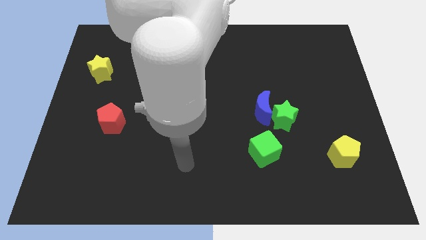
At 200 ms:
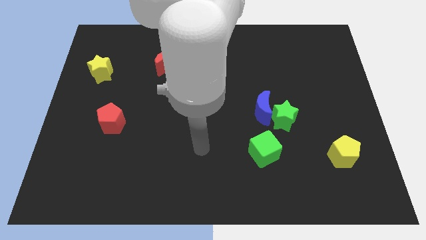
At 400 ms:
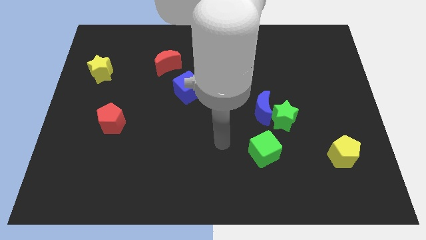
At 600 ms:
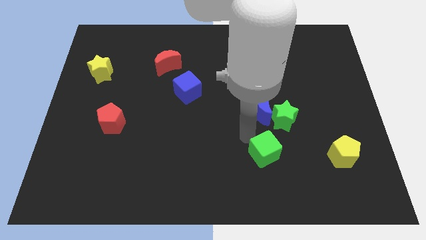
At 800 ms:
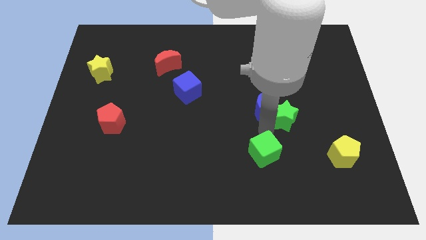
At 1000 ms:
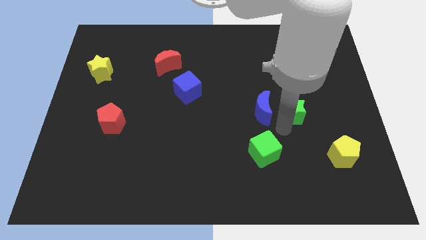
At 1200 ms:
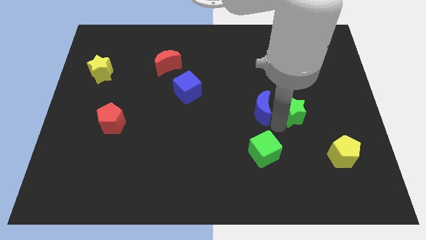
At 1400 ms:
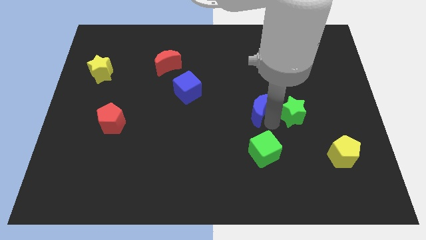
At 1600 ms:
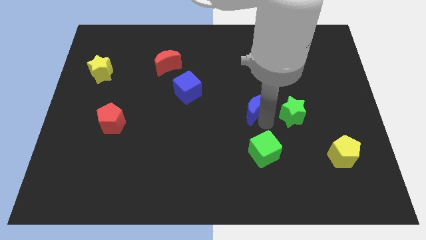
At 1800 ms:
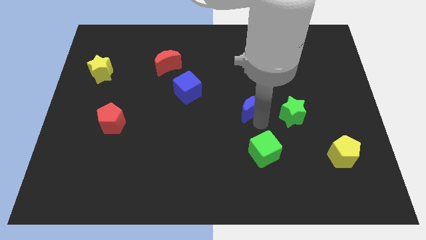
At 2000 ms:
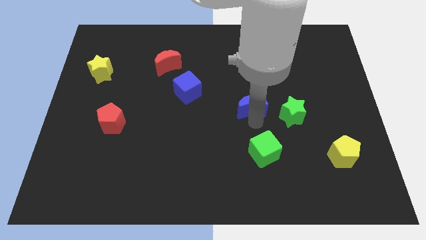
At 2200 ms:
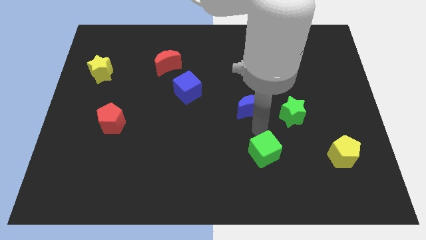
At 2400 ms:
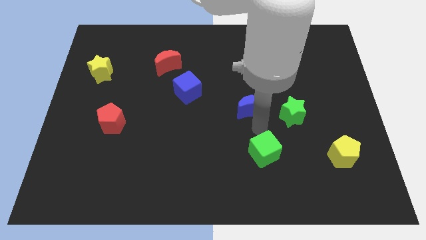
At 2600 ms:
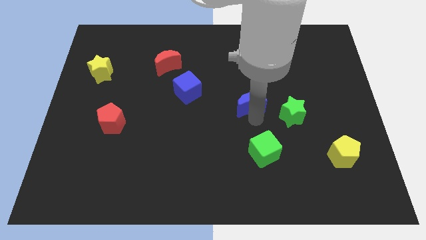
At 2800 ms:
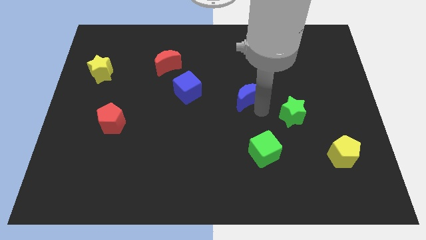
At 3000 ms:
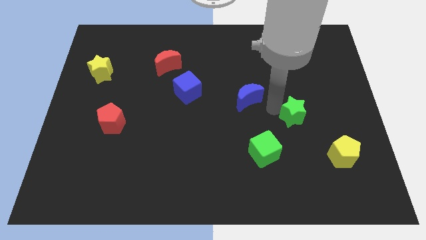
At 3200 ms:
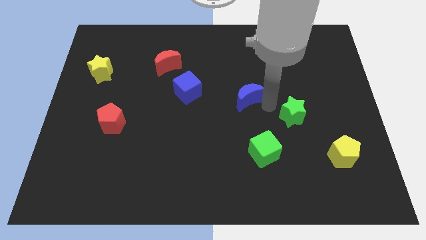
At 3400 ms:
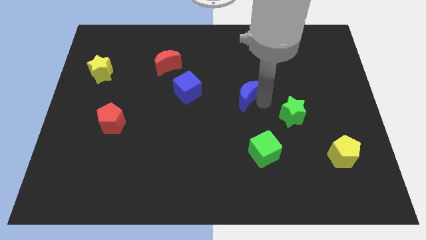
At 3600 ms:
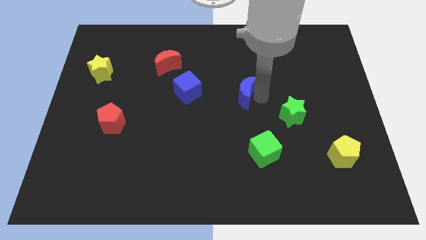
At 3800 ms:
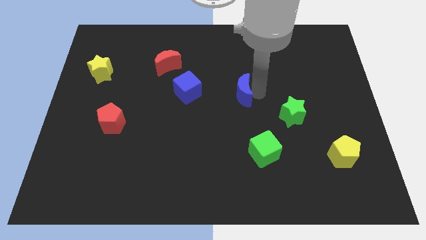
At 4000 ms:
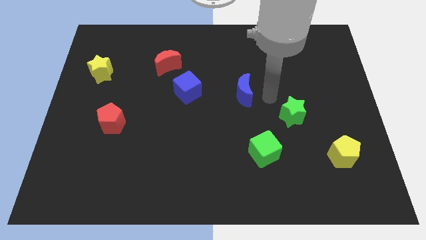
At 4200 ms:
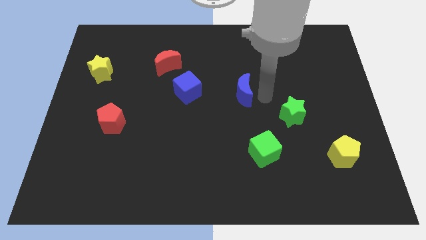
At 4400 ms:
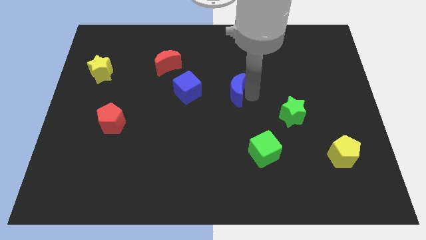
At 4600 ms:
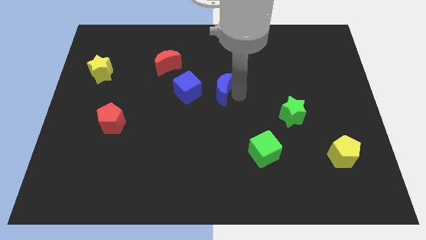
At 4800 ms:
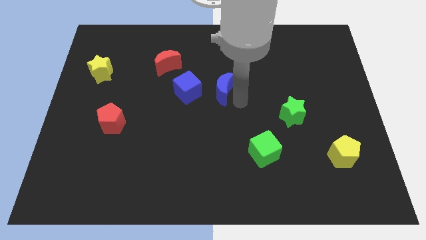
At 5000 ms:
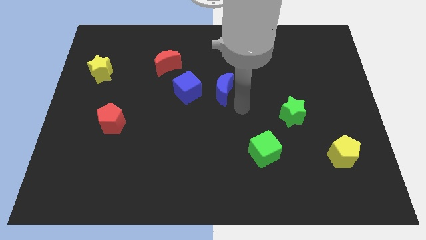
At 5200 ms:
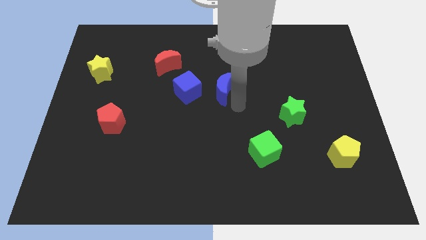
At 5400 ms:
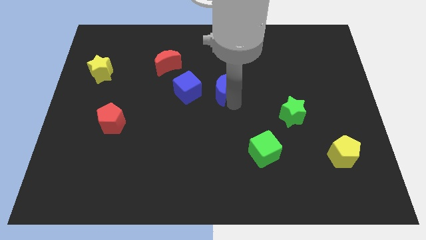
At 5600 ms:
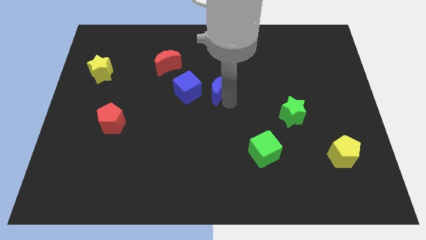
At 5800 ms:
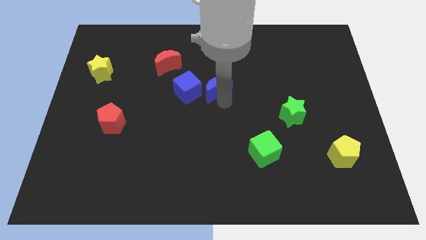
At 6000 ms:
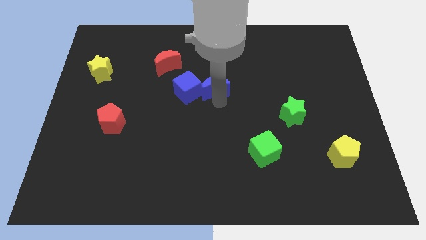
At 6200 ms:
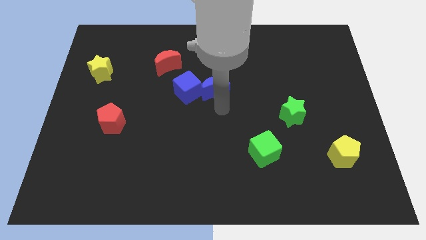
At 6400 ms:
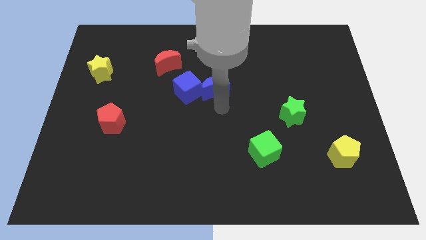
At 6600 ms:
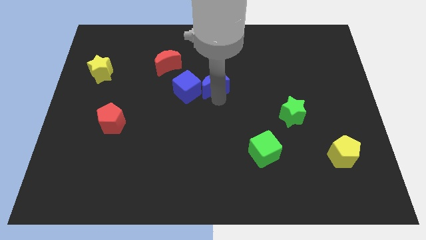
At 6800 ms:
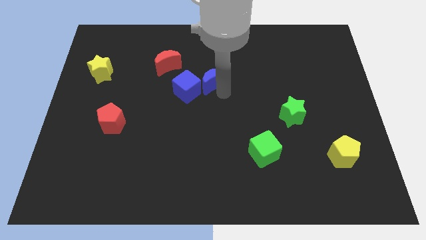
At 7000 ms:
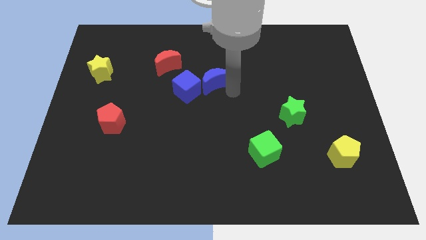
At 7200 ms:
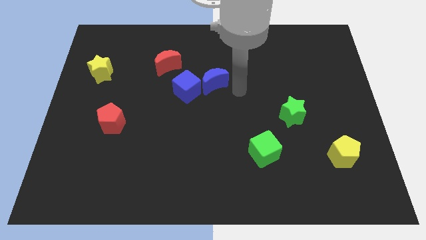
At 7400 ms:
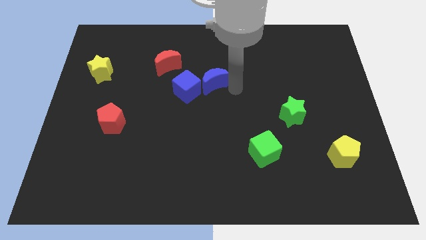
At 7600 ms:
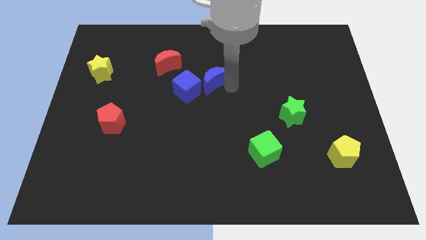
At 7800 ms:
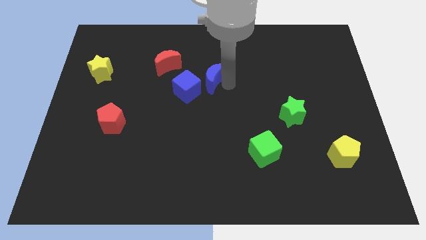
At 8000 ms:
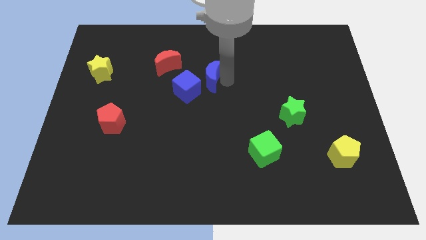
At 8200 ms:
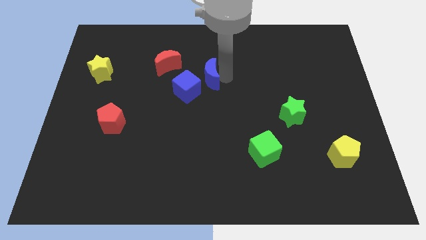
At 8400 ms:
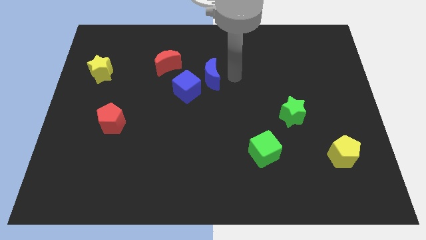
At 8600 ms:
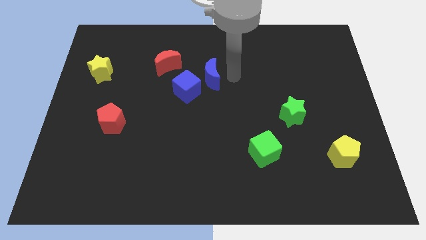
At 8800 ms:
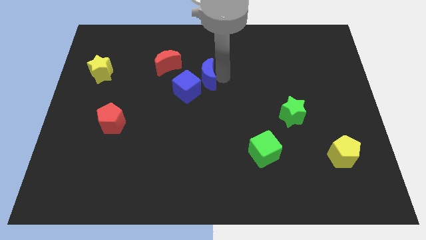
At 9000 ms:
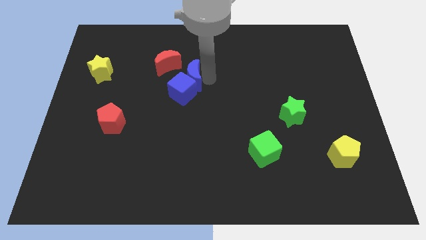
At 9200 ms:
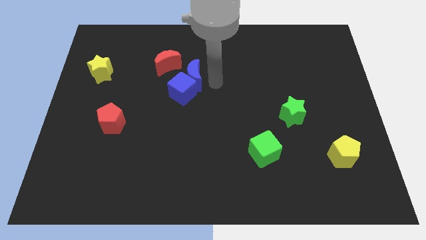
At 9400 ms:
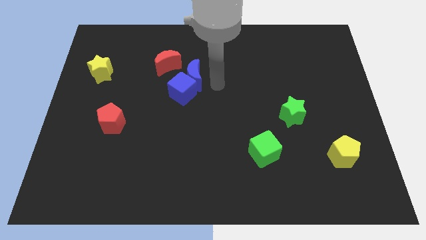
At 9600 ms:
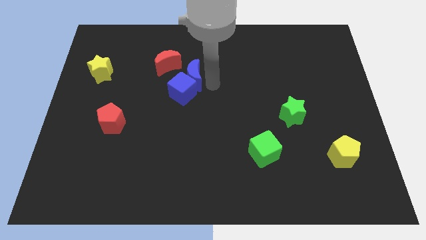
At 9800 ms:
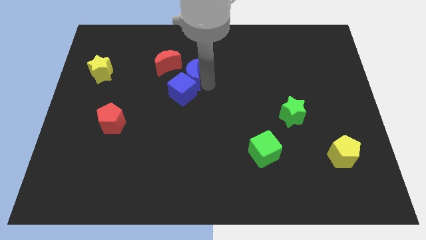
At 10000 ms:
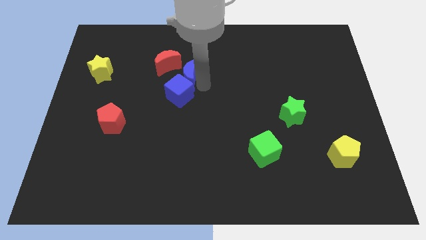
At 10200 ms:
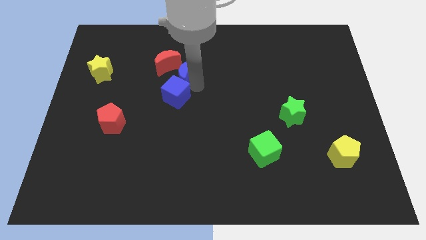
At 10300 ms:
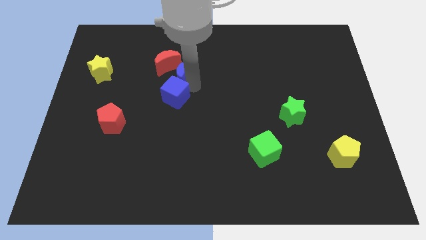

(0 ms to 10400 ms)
push the blue moon towards the red moon

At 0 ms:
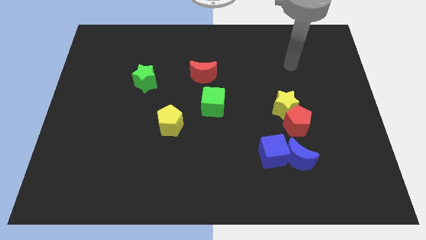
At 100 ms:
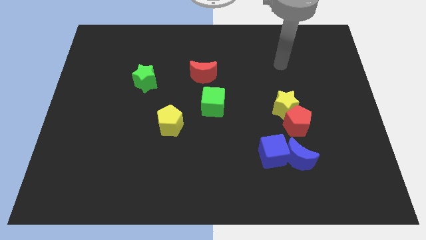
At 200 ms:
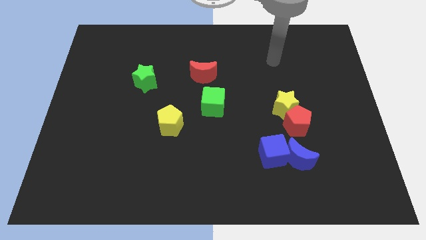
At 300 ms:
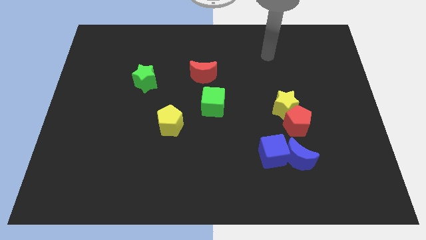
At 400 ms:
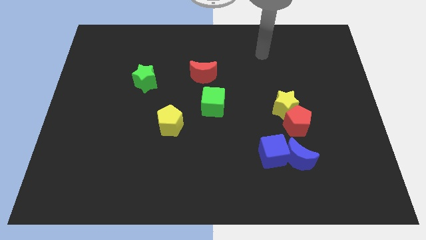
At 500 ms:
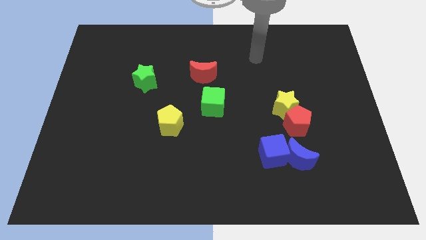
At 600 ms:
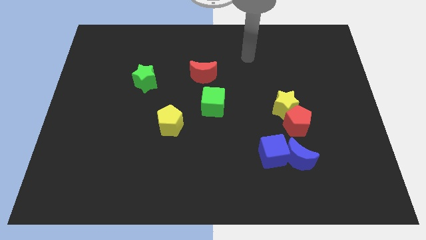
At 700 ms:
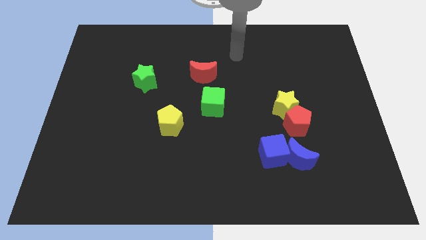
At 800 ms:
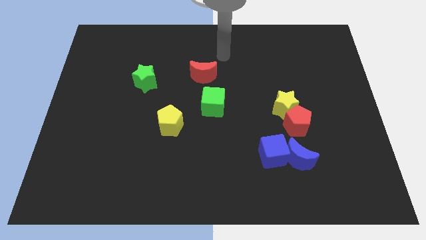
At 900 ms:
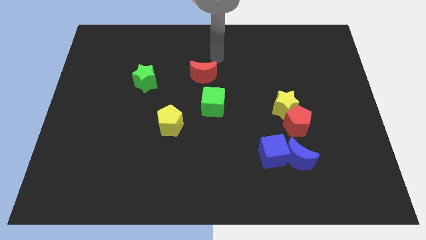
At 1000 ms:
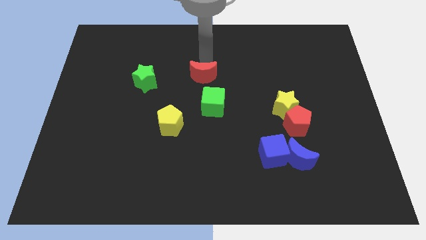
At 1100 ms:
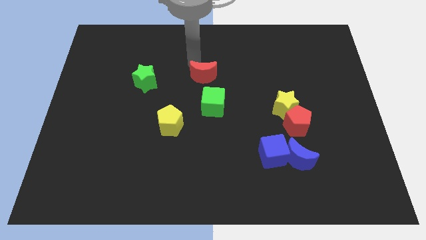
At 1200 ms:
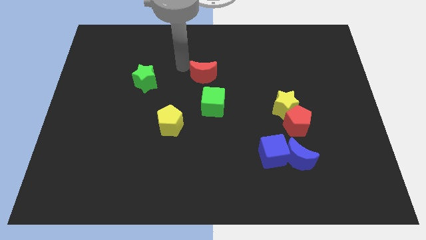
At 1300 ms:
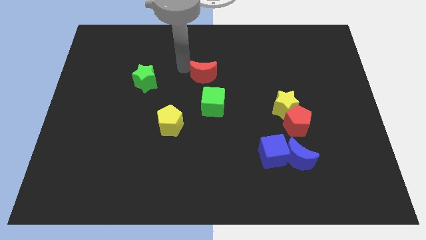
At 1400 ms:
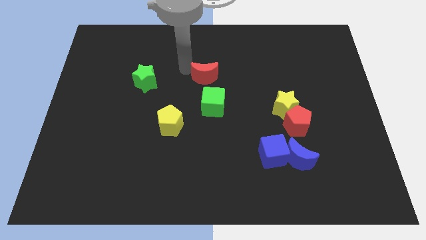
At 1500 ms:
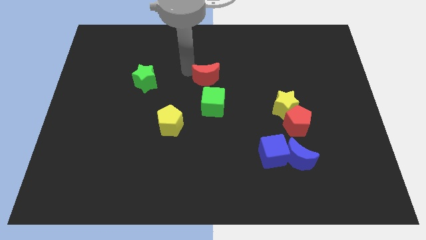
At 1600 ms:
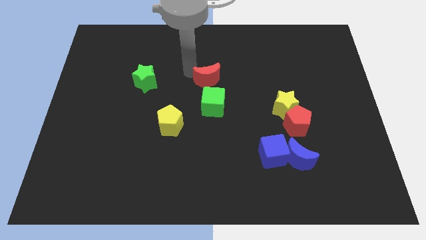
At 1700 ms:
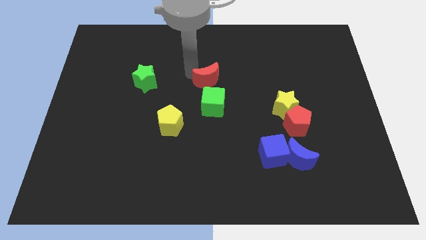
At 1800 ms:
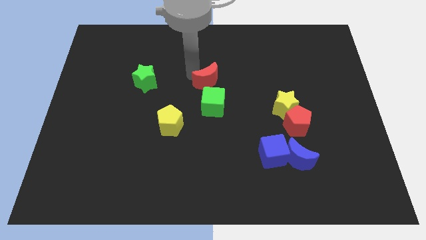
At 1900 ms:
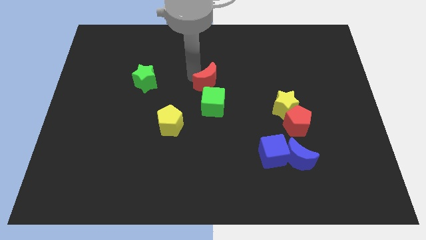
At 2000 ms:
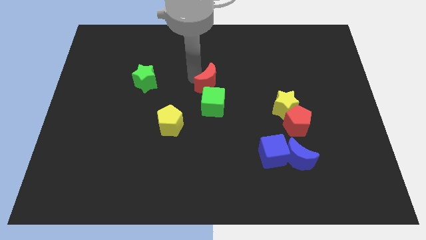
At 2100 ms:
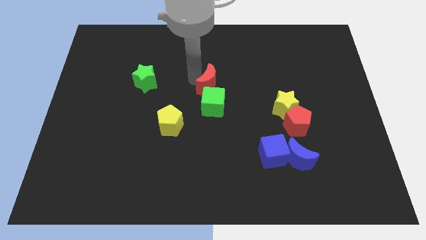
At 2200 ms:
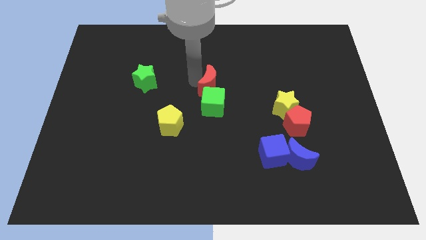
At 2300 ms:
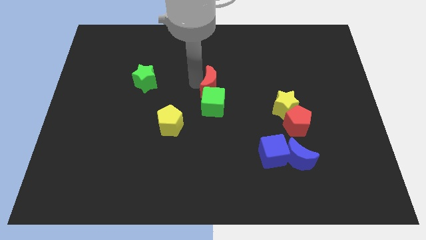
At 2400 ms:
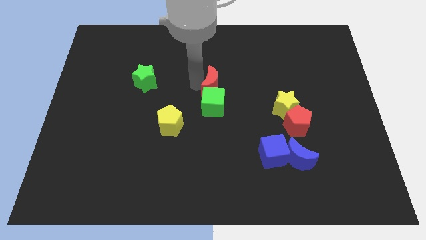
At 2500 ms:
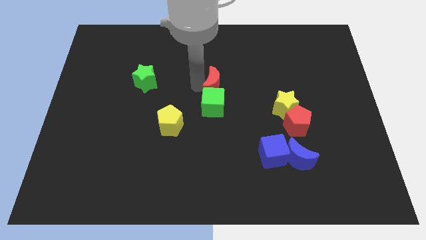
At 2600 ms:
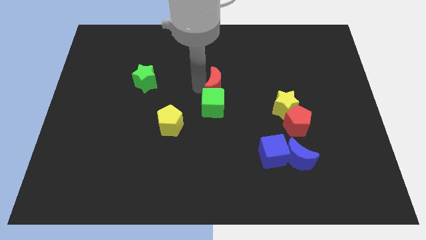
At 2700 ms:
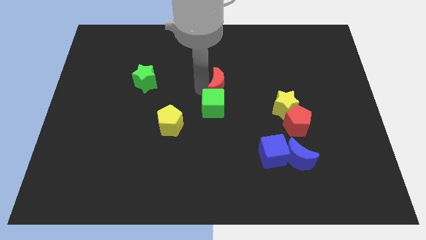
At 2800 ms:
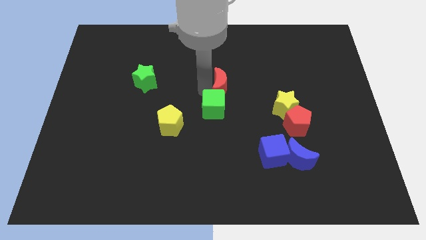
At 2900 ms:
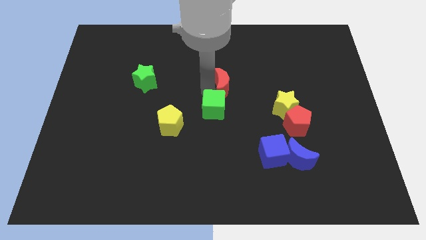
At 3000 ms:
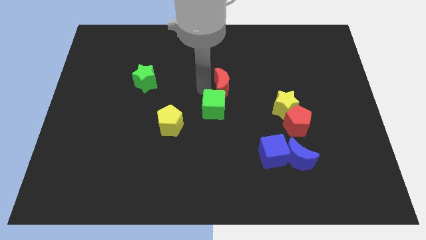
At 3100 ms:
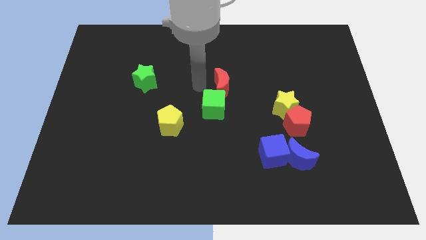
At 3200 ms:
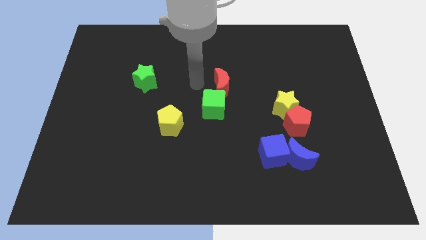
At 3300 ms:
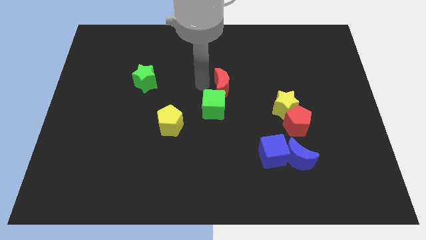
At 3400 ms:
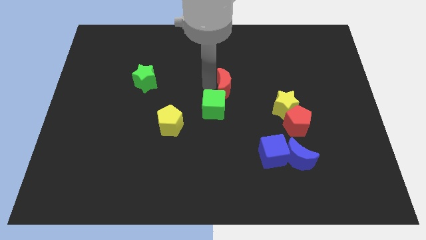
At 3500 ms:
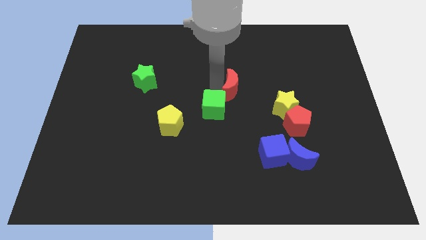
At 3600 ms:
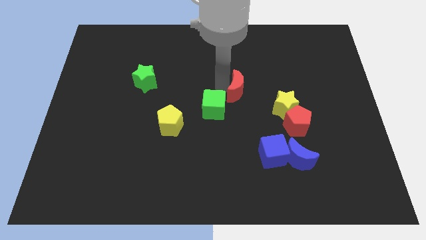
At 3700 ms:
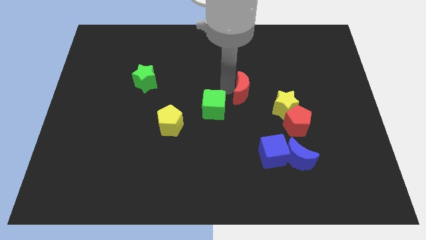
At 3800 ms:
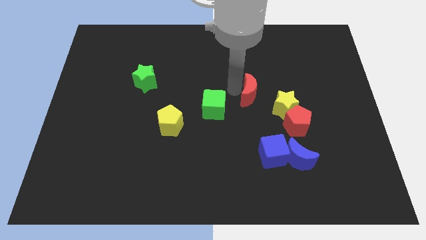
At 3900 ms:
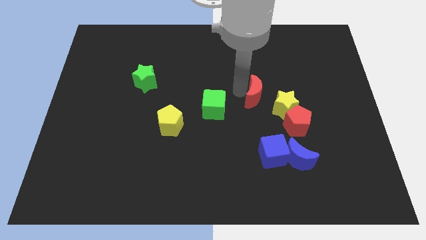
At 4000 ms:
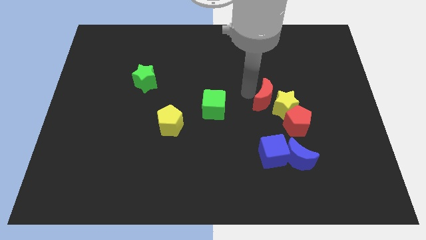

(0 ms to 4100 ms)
slide the red moon close to the yellow star
